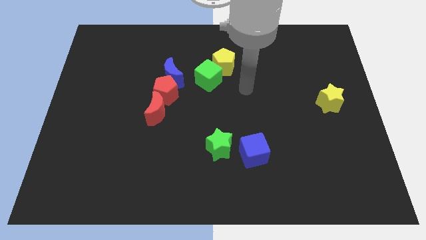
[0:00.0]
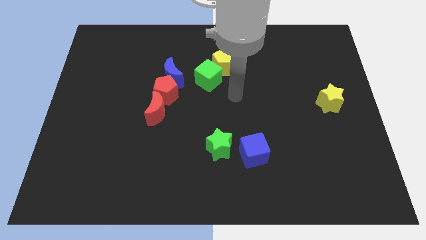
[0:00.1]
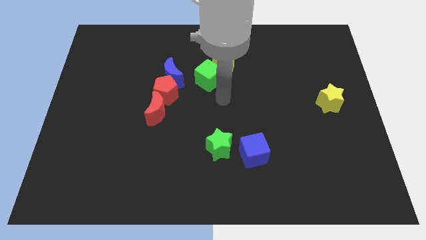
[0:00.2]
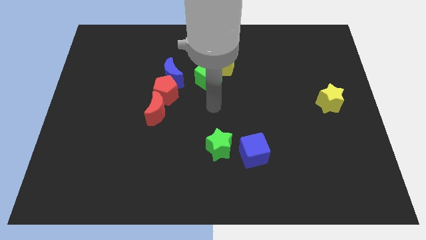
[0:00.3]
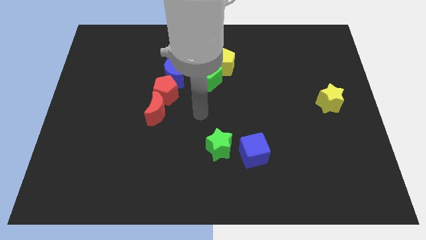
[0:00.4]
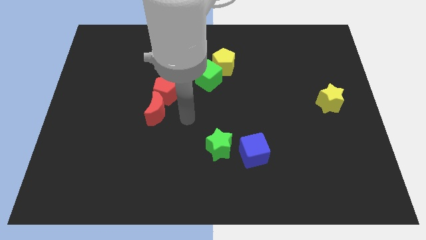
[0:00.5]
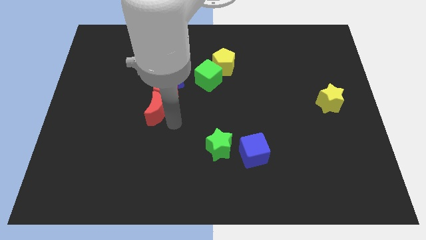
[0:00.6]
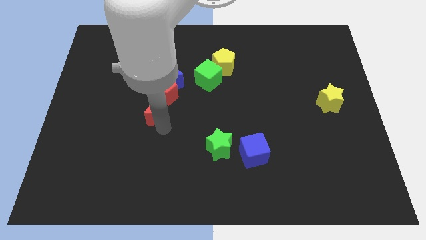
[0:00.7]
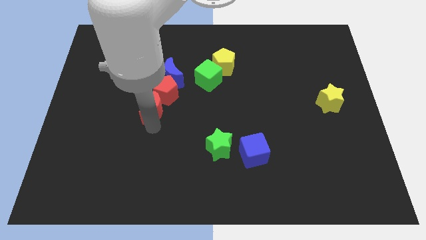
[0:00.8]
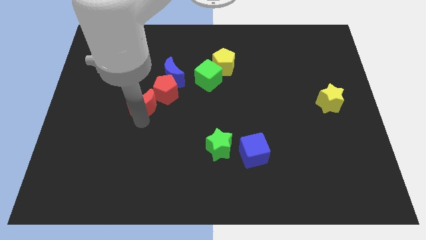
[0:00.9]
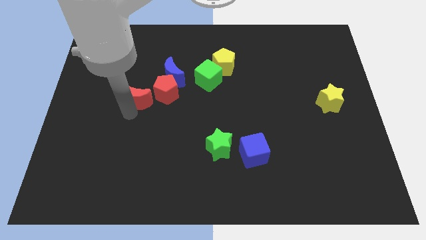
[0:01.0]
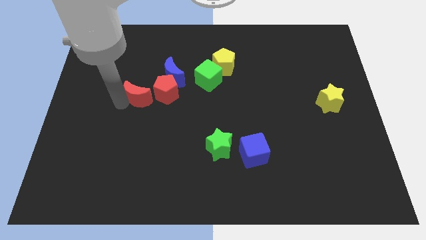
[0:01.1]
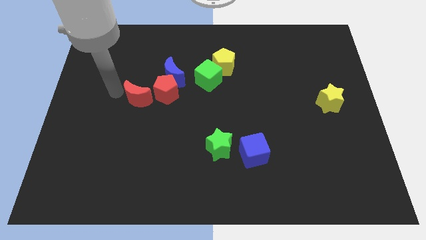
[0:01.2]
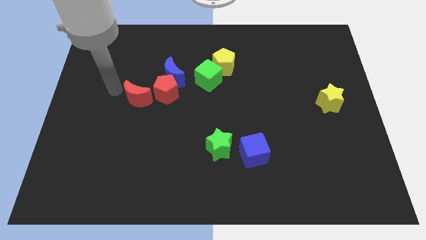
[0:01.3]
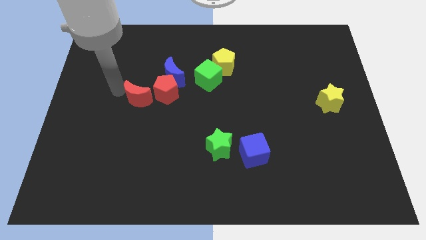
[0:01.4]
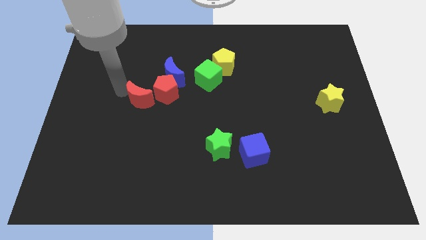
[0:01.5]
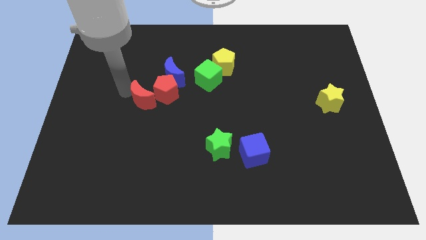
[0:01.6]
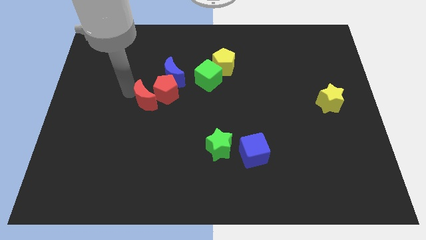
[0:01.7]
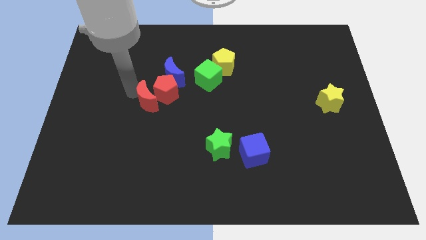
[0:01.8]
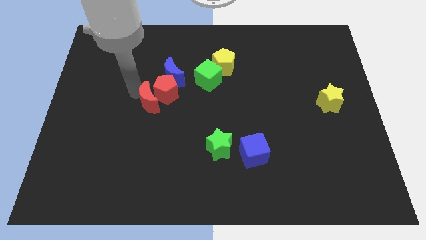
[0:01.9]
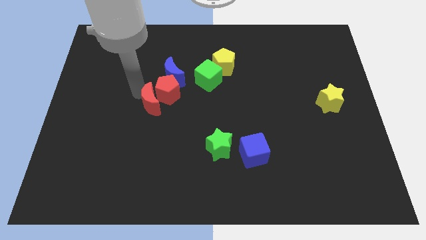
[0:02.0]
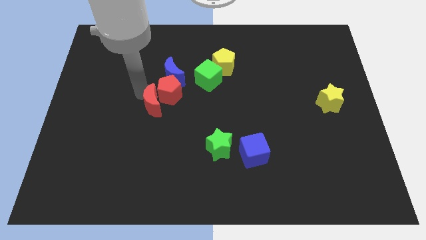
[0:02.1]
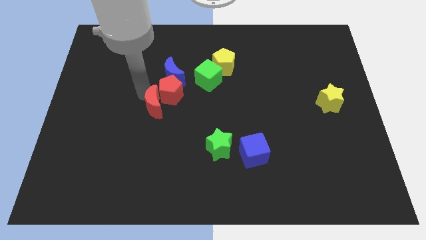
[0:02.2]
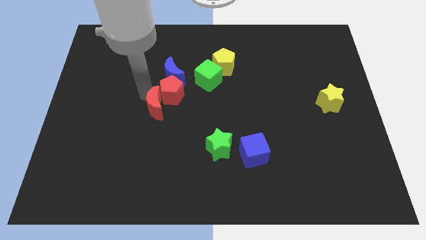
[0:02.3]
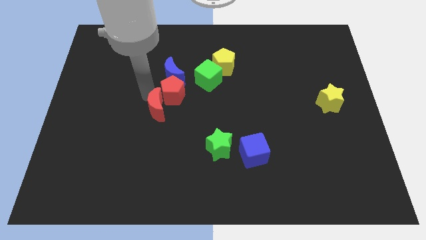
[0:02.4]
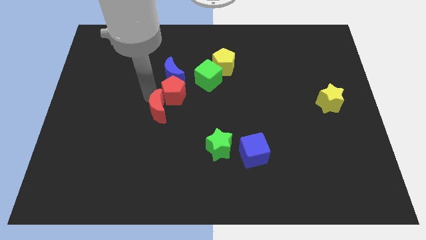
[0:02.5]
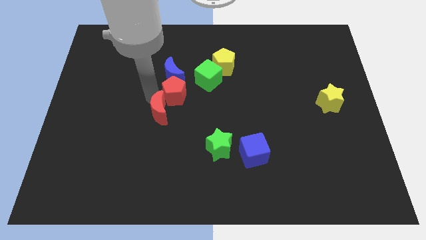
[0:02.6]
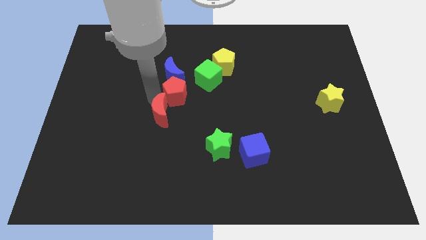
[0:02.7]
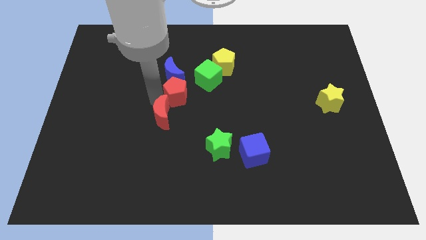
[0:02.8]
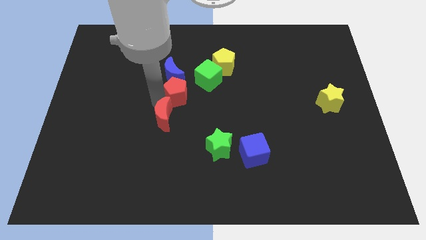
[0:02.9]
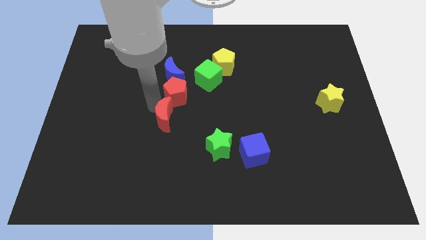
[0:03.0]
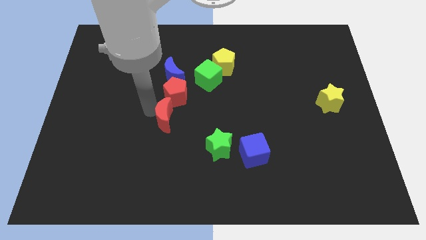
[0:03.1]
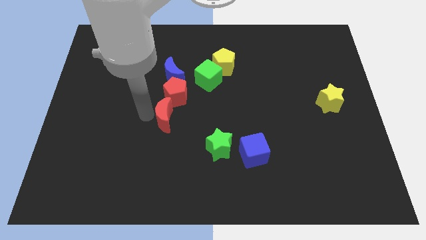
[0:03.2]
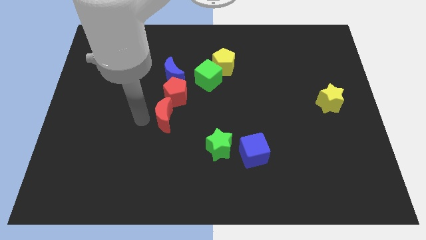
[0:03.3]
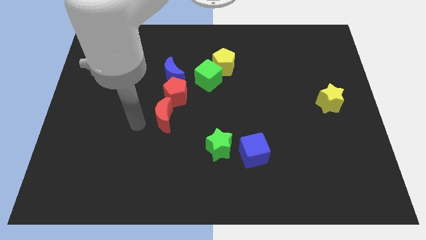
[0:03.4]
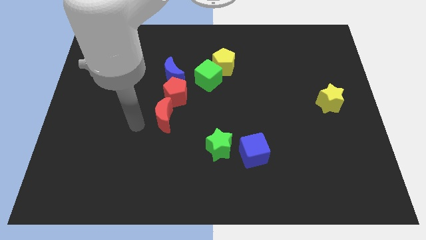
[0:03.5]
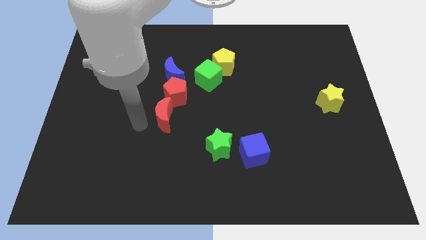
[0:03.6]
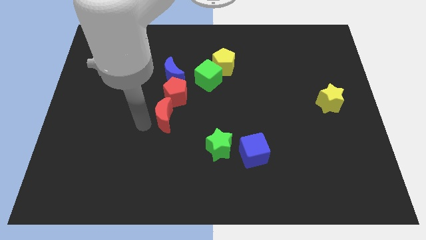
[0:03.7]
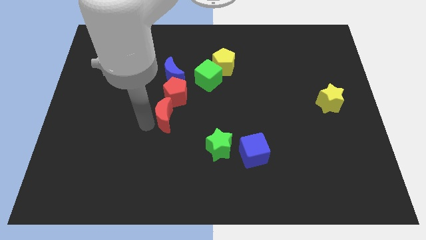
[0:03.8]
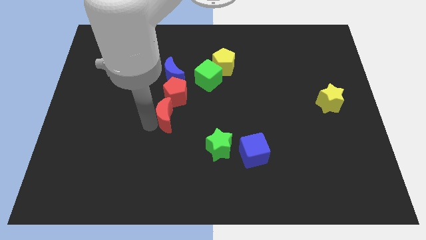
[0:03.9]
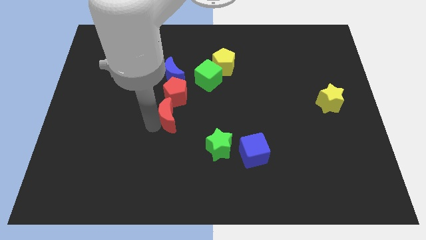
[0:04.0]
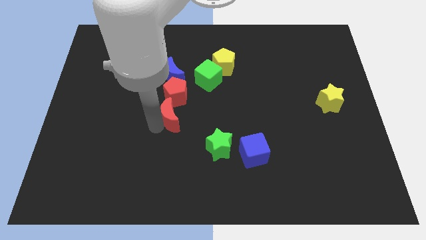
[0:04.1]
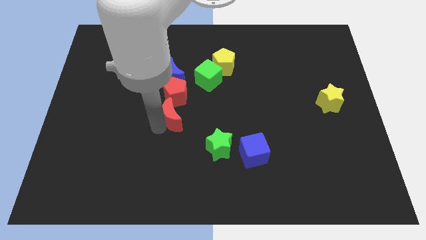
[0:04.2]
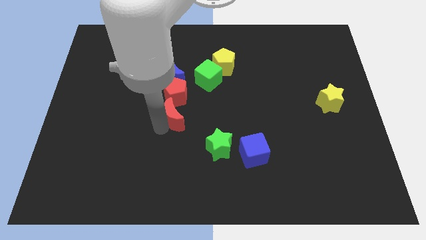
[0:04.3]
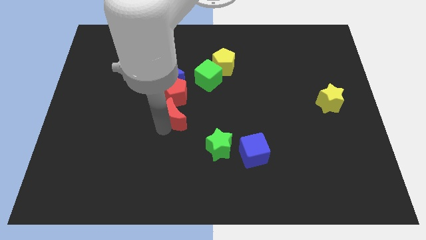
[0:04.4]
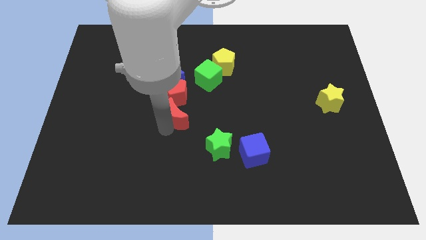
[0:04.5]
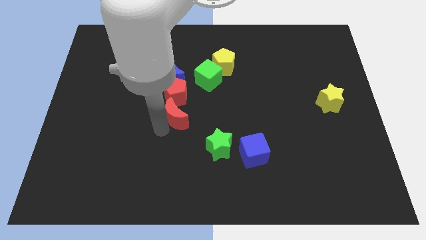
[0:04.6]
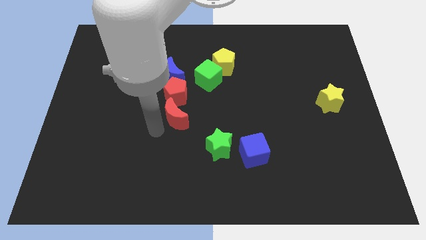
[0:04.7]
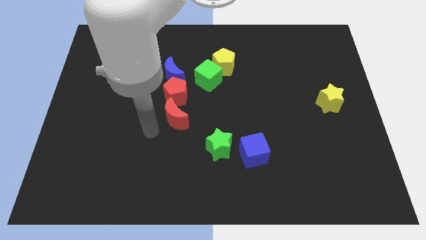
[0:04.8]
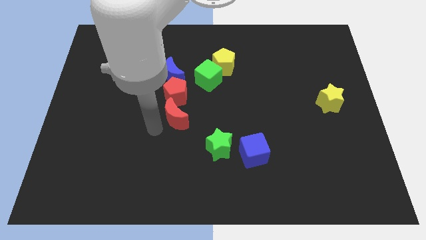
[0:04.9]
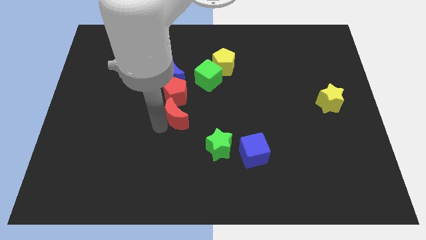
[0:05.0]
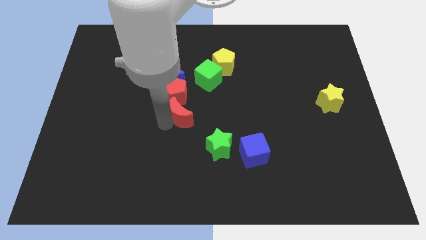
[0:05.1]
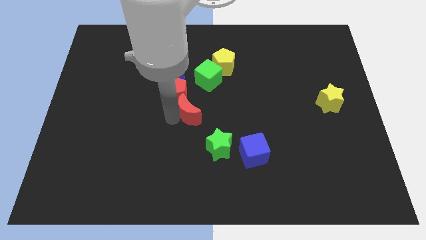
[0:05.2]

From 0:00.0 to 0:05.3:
slide the red moon to the right a little

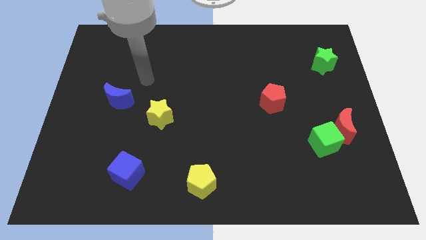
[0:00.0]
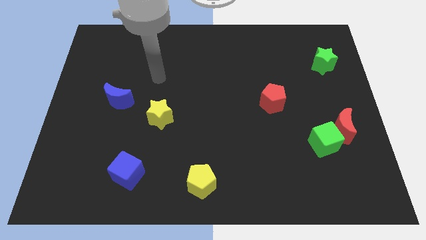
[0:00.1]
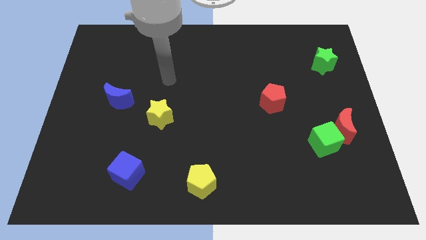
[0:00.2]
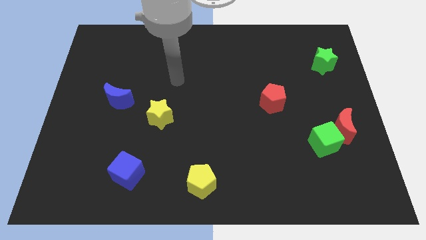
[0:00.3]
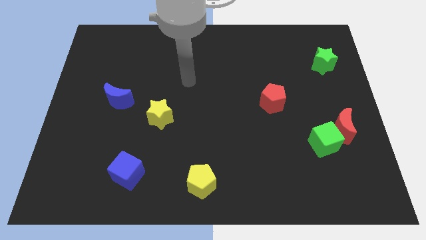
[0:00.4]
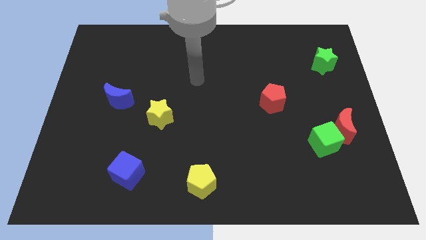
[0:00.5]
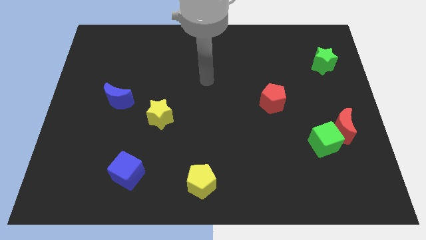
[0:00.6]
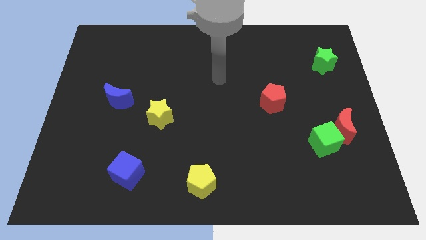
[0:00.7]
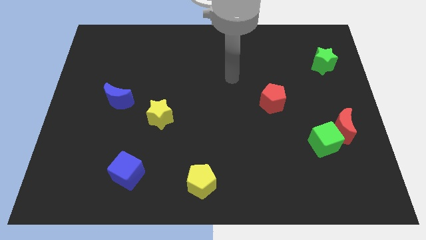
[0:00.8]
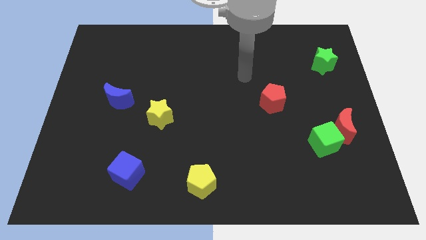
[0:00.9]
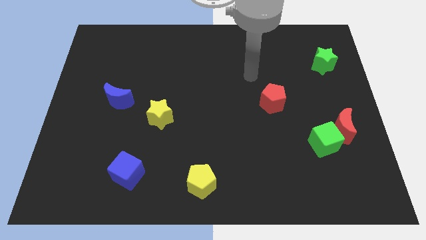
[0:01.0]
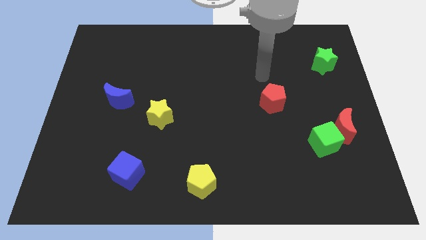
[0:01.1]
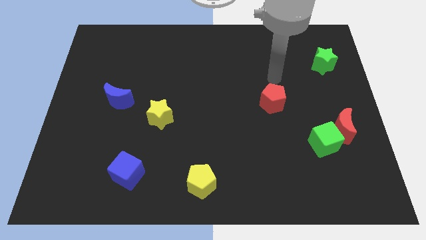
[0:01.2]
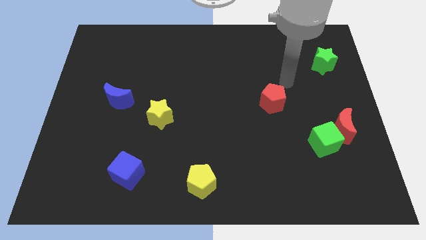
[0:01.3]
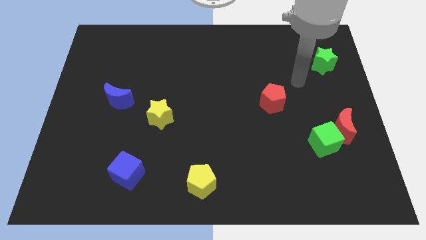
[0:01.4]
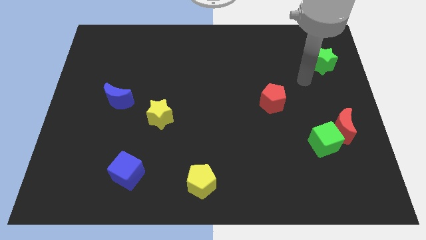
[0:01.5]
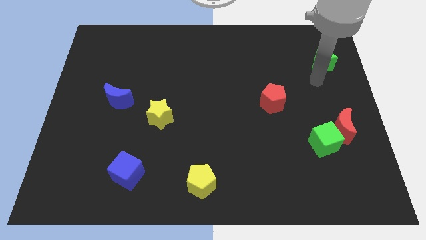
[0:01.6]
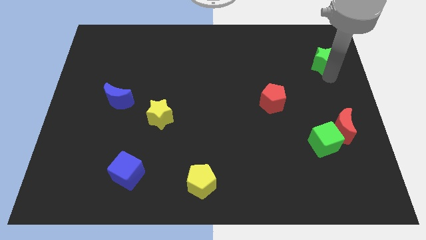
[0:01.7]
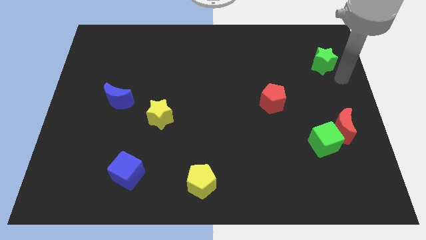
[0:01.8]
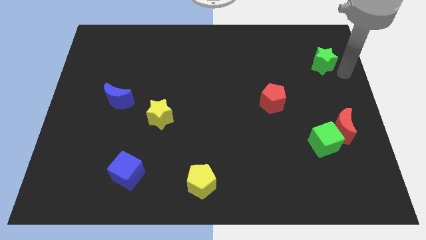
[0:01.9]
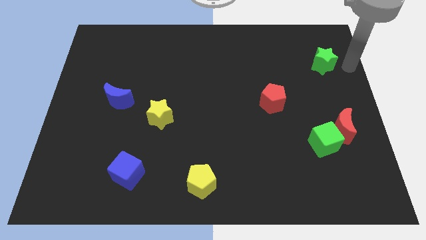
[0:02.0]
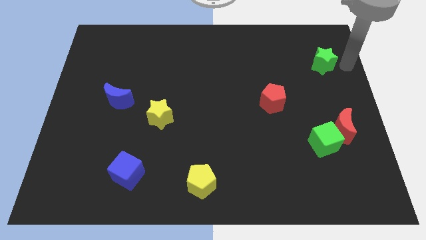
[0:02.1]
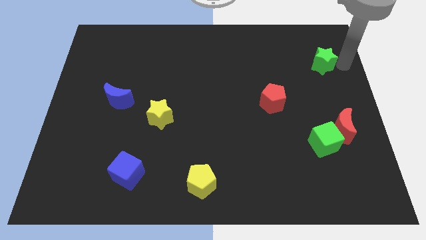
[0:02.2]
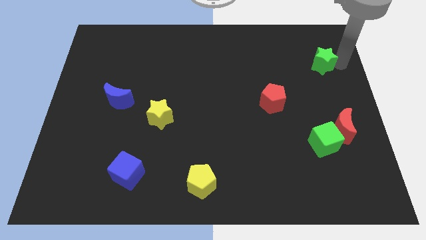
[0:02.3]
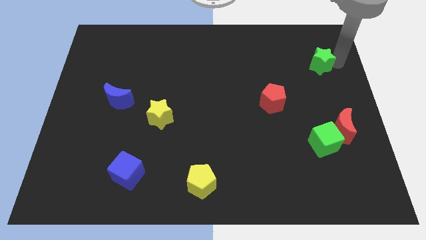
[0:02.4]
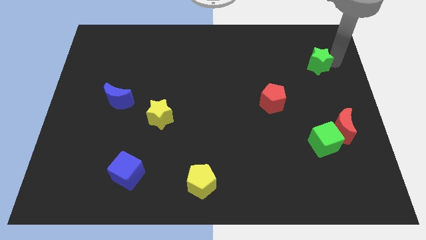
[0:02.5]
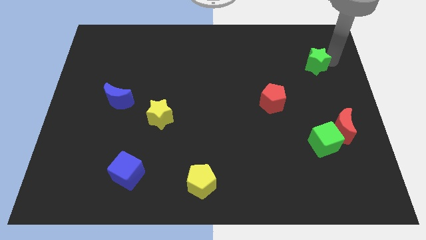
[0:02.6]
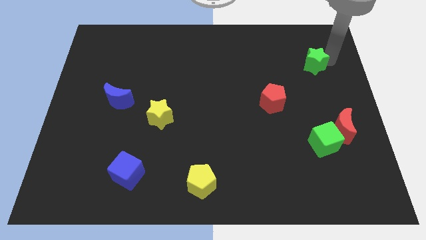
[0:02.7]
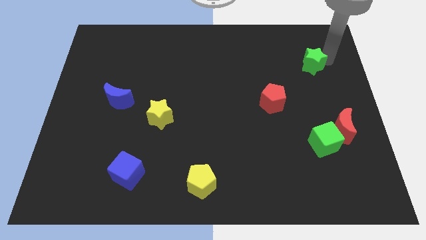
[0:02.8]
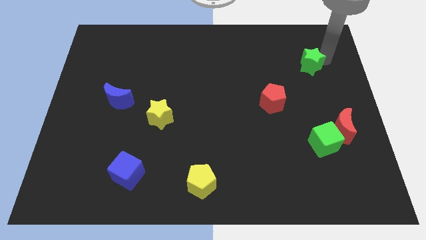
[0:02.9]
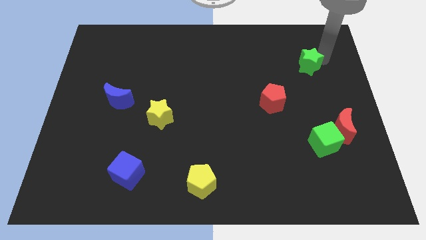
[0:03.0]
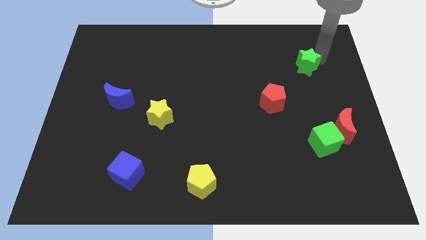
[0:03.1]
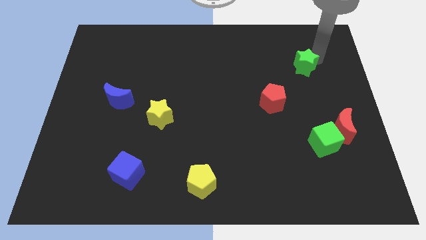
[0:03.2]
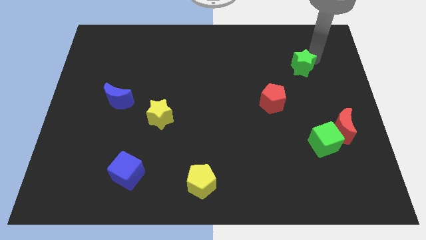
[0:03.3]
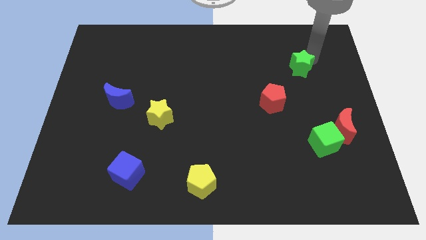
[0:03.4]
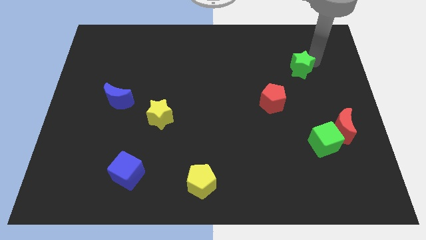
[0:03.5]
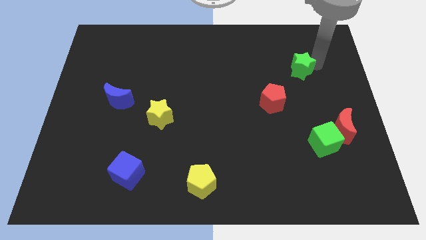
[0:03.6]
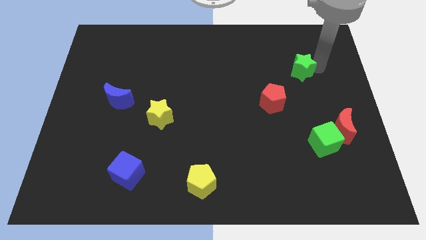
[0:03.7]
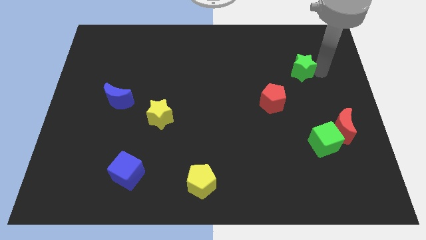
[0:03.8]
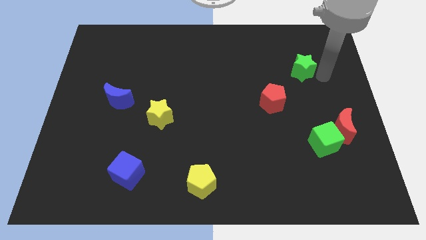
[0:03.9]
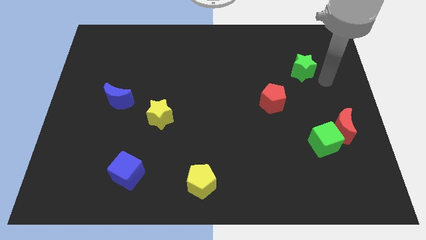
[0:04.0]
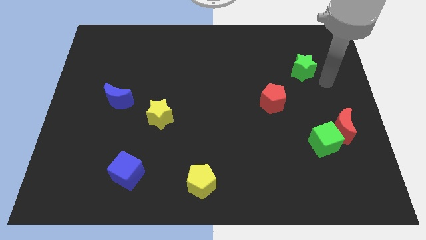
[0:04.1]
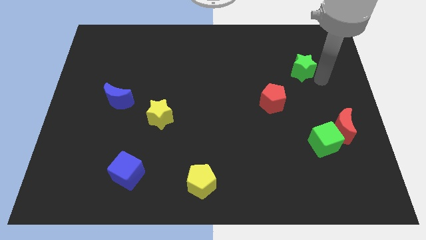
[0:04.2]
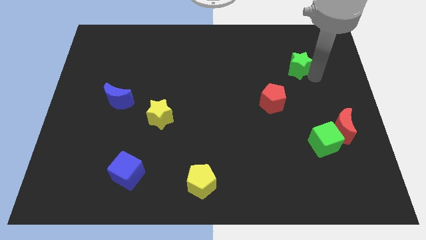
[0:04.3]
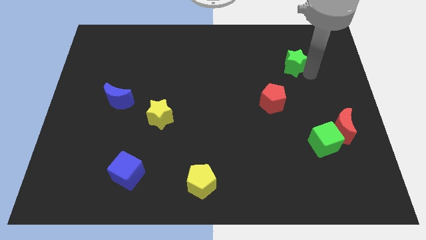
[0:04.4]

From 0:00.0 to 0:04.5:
slightly push the green star to the left
